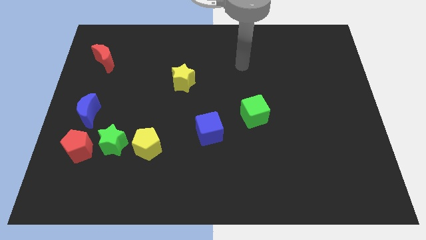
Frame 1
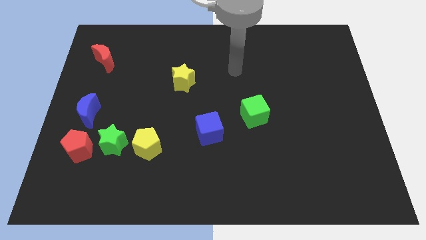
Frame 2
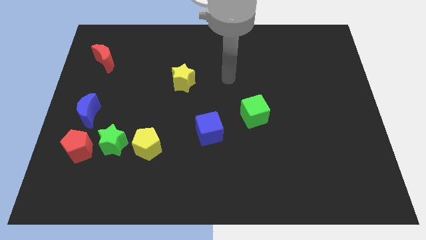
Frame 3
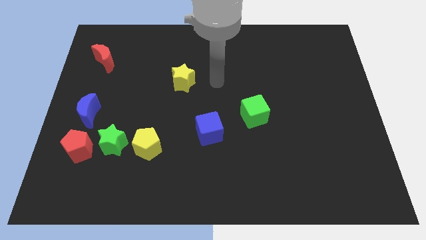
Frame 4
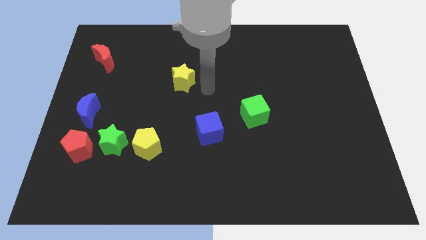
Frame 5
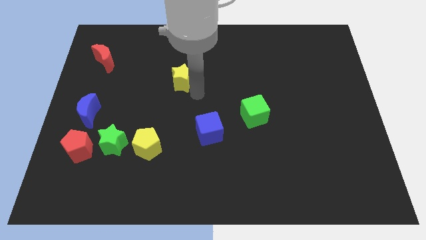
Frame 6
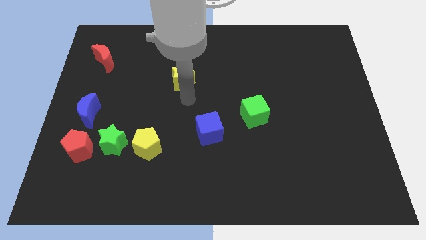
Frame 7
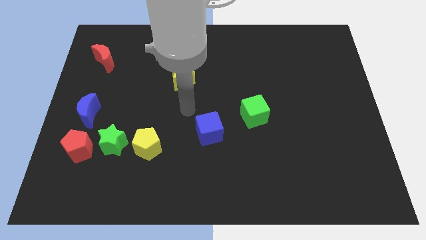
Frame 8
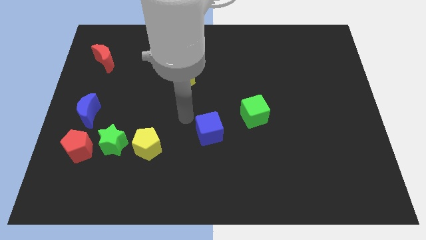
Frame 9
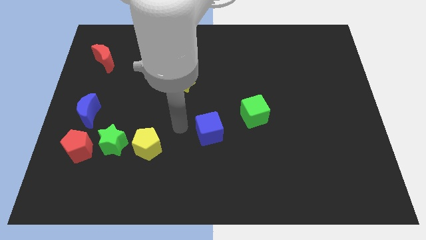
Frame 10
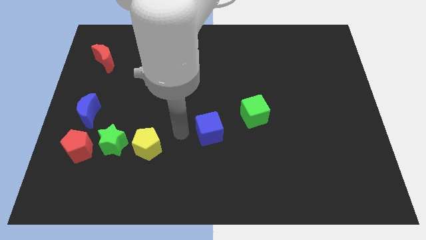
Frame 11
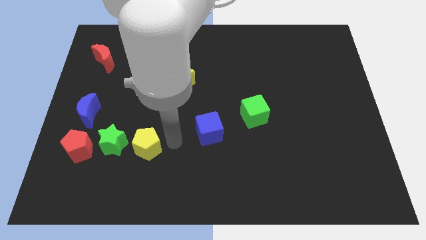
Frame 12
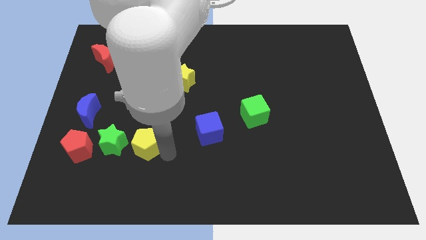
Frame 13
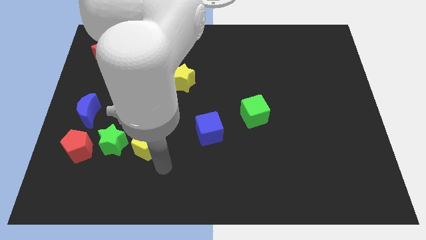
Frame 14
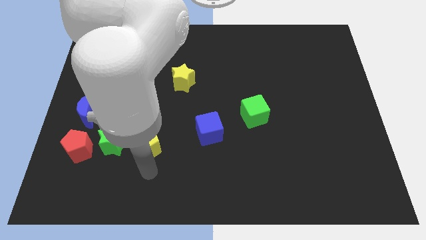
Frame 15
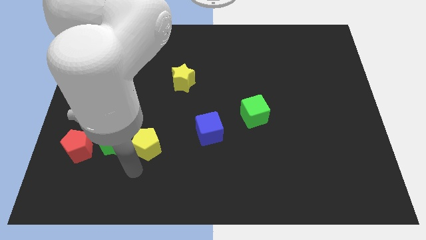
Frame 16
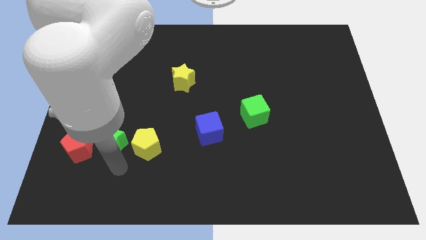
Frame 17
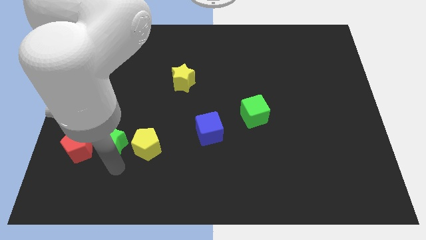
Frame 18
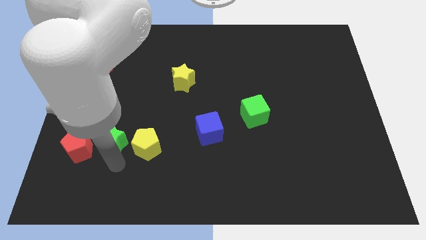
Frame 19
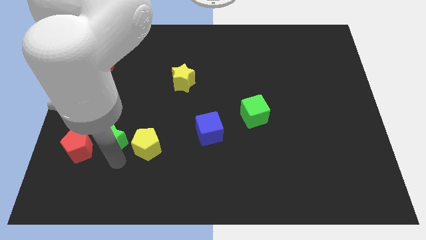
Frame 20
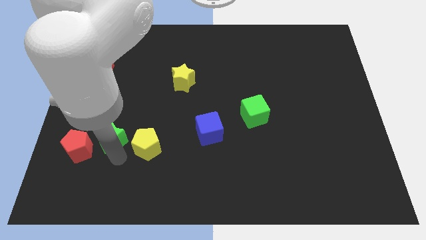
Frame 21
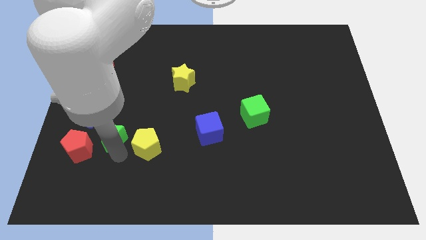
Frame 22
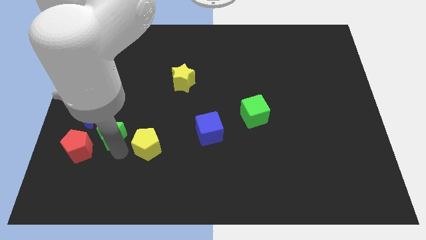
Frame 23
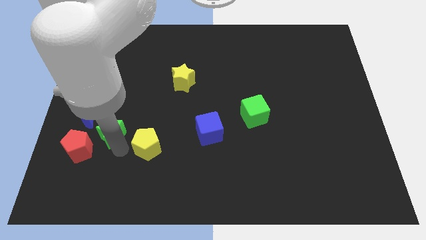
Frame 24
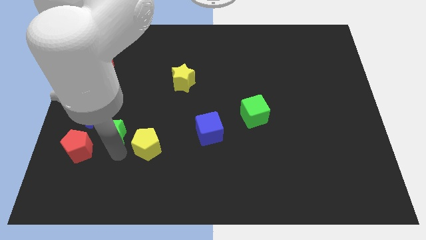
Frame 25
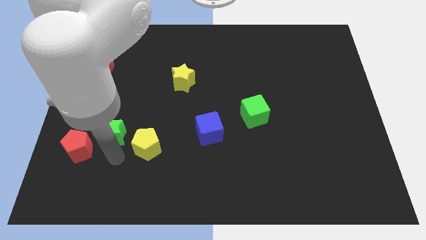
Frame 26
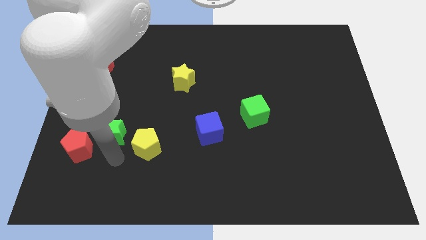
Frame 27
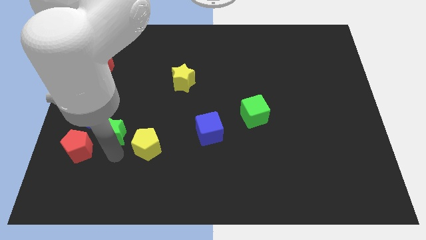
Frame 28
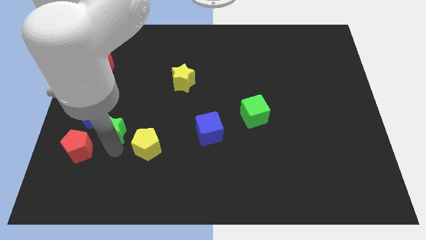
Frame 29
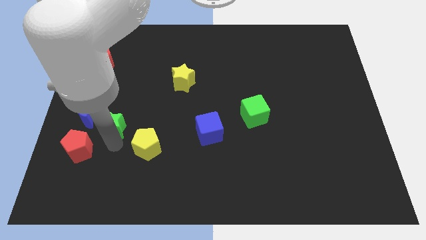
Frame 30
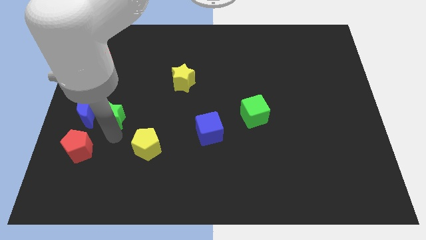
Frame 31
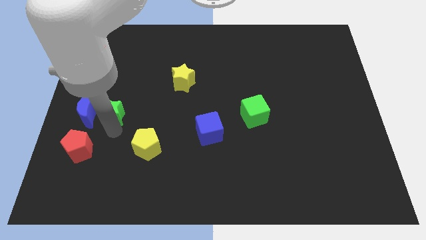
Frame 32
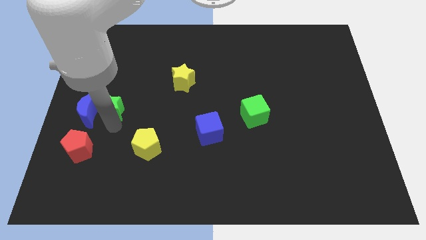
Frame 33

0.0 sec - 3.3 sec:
pull the green star apart from the red pentagon and yellow pentagon

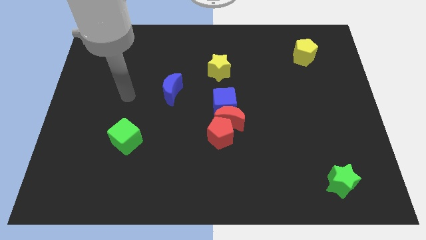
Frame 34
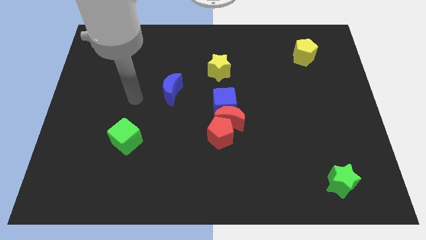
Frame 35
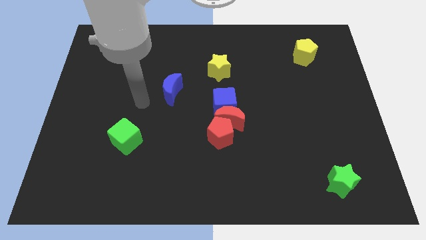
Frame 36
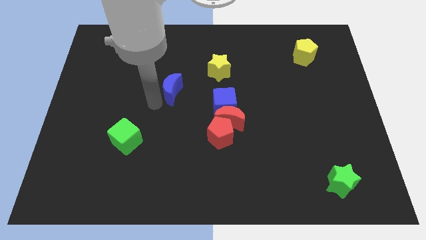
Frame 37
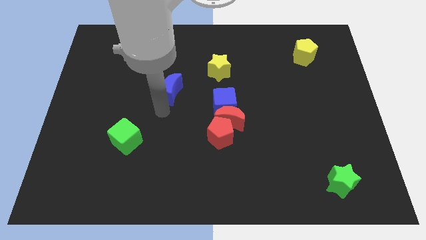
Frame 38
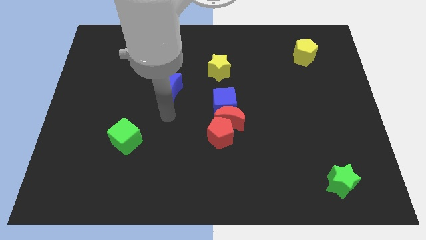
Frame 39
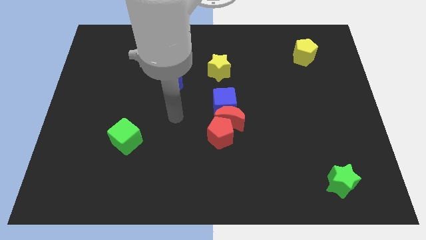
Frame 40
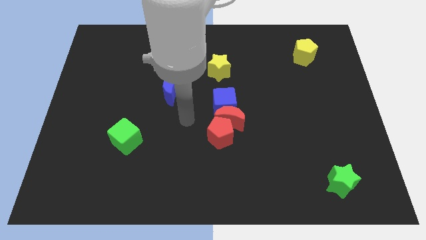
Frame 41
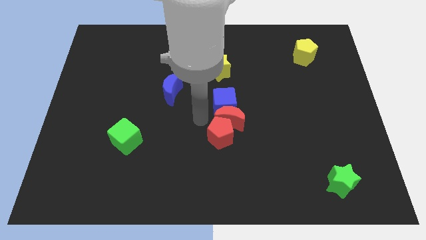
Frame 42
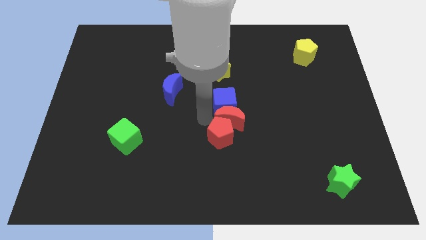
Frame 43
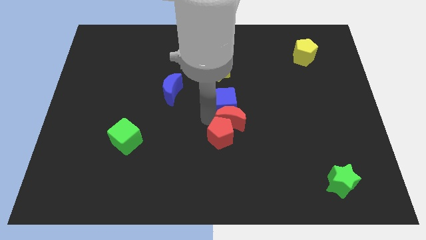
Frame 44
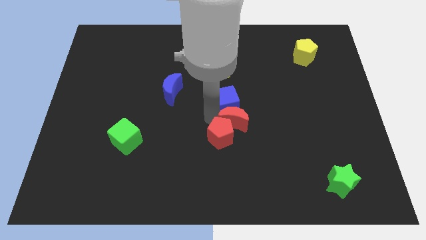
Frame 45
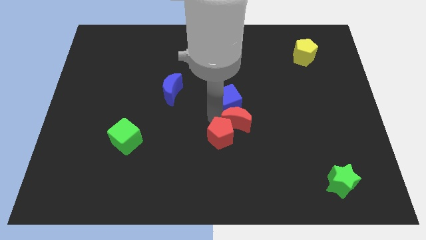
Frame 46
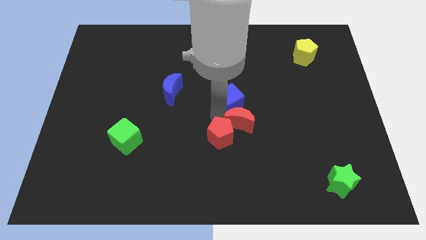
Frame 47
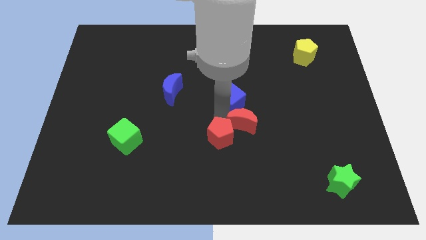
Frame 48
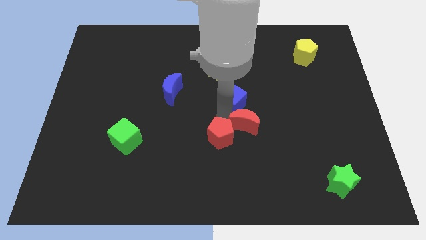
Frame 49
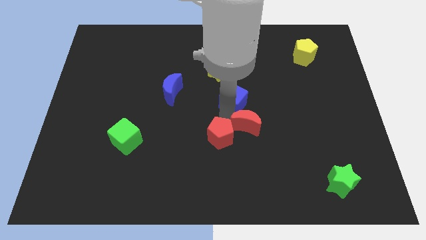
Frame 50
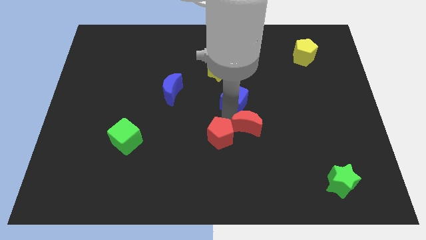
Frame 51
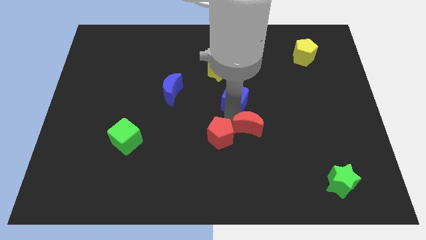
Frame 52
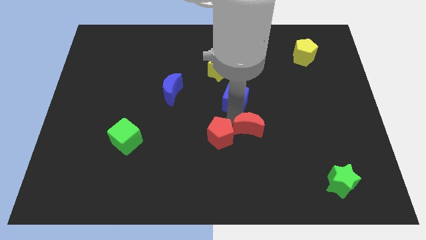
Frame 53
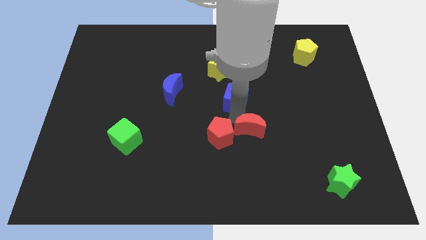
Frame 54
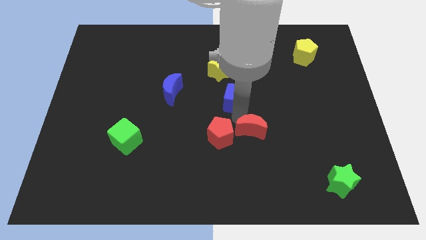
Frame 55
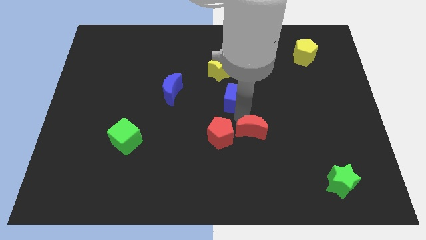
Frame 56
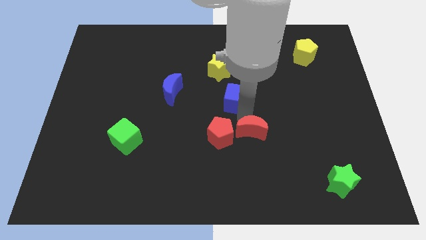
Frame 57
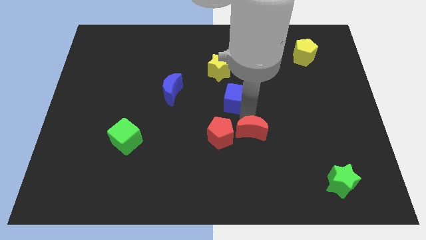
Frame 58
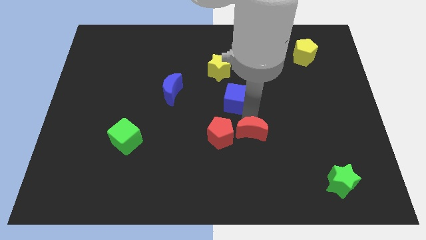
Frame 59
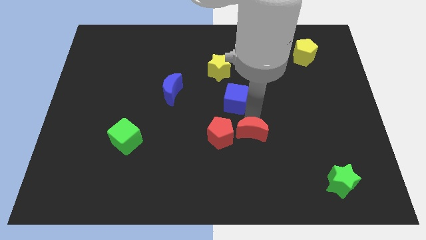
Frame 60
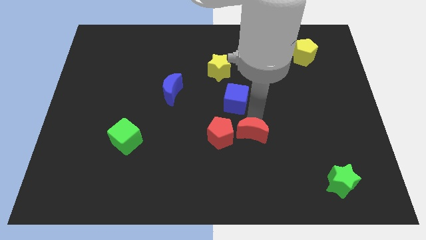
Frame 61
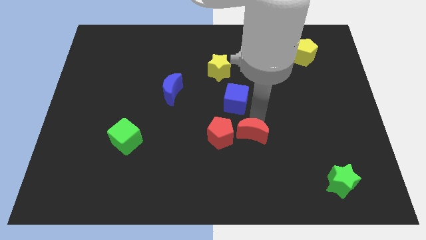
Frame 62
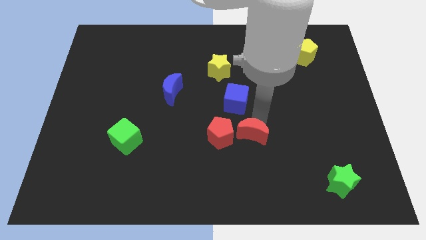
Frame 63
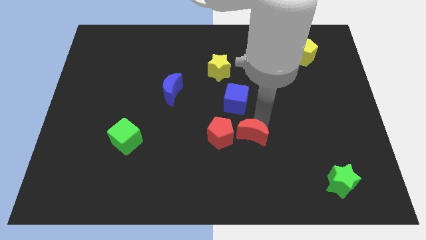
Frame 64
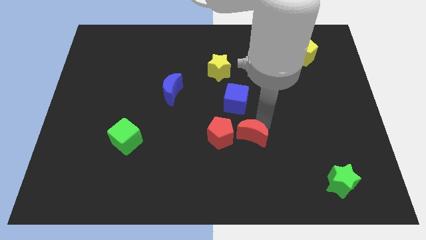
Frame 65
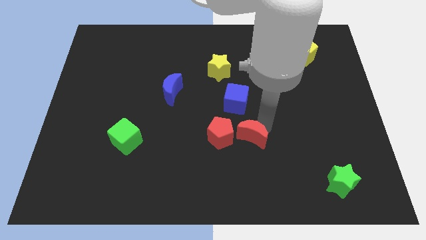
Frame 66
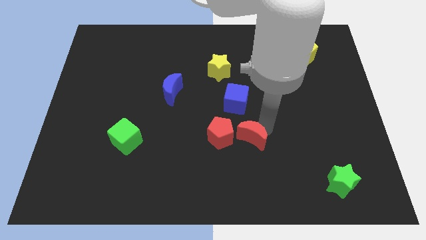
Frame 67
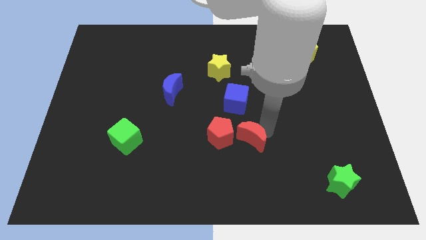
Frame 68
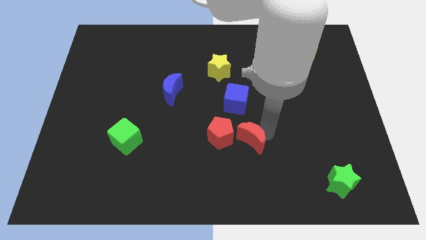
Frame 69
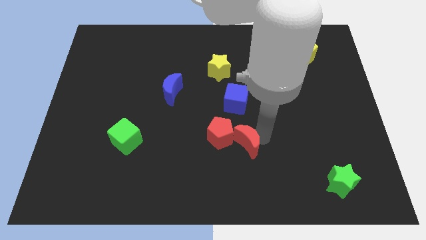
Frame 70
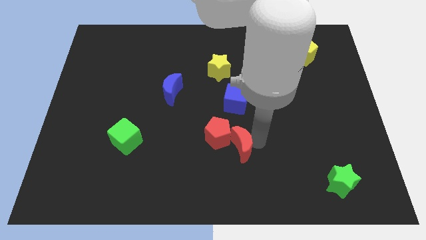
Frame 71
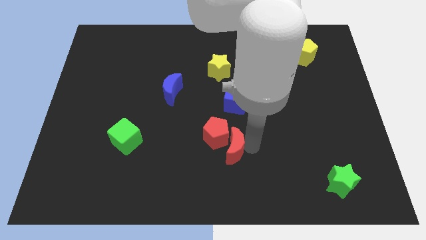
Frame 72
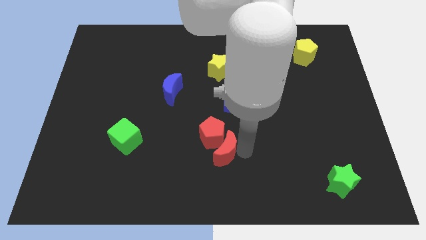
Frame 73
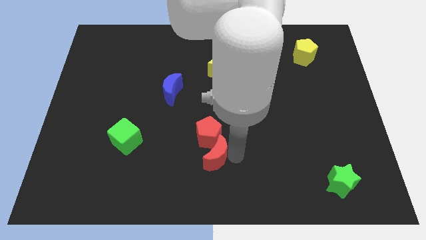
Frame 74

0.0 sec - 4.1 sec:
move the red moon away from the blue cube and red pentagon

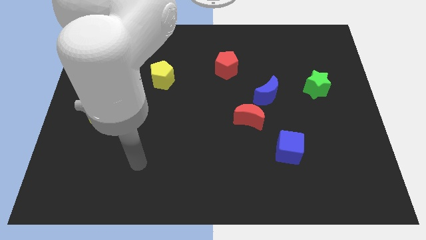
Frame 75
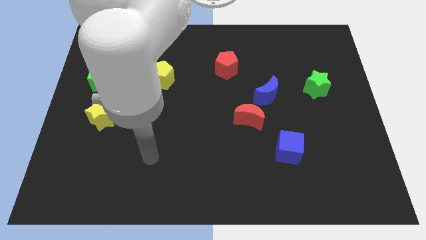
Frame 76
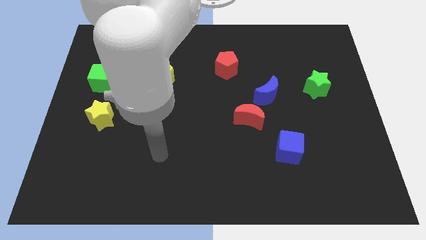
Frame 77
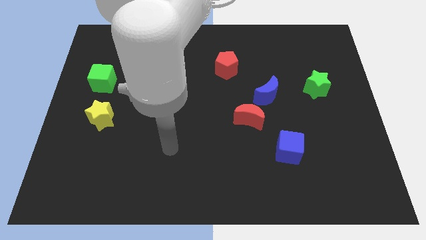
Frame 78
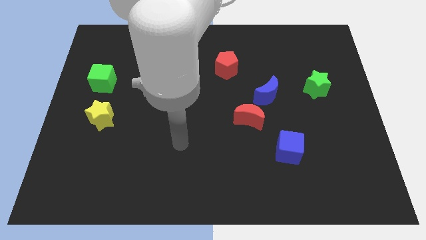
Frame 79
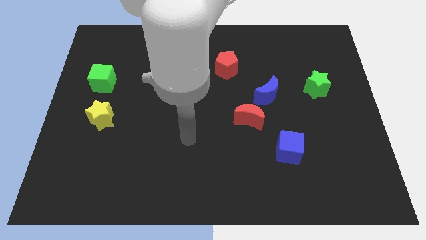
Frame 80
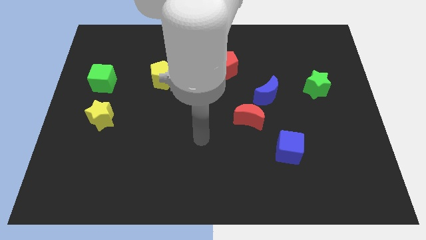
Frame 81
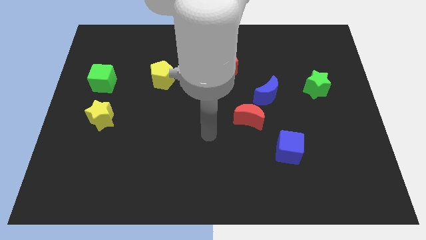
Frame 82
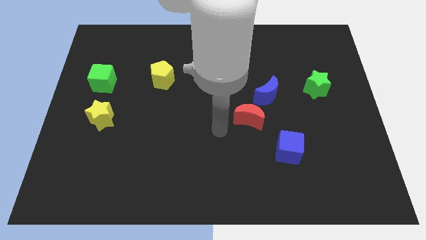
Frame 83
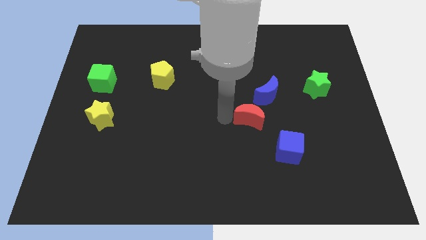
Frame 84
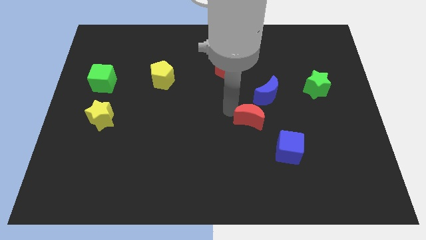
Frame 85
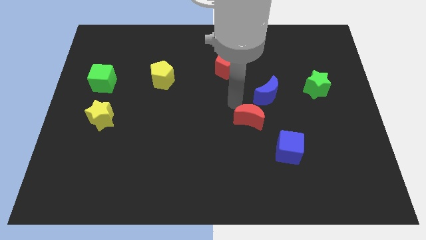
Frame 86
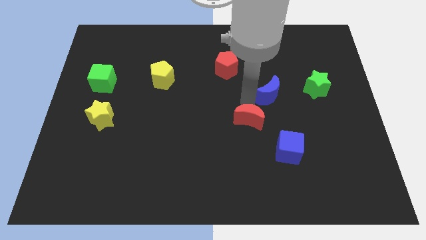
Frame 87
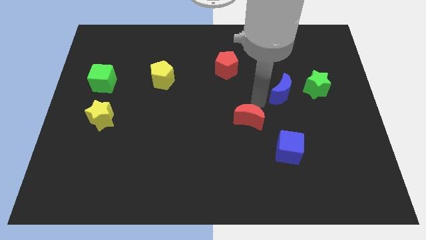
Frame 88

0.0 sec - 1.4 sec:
move the red moon away from the blue moon

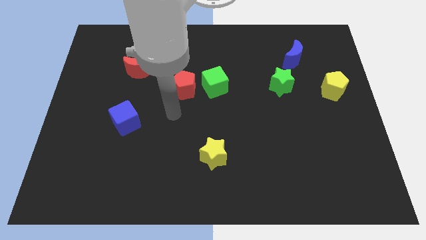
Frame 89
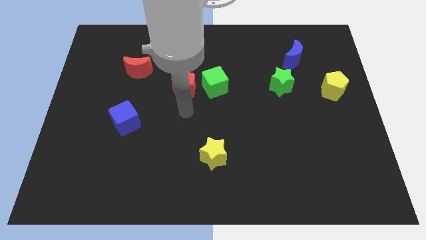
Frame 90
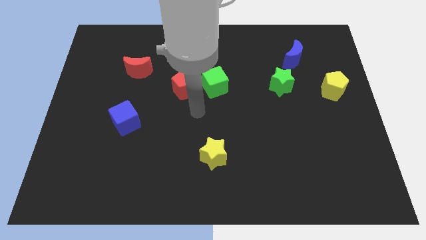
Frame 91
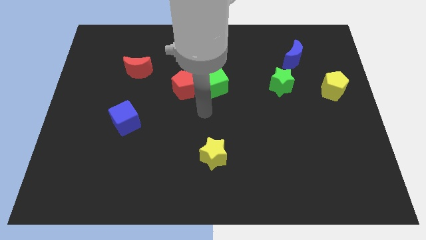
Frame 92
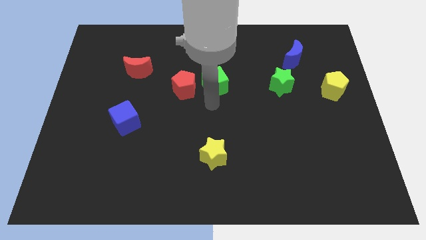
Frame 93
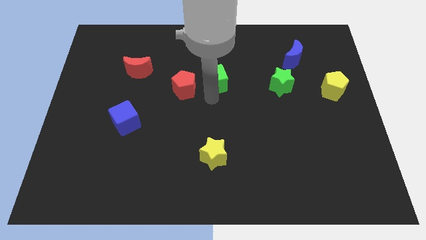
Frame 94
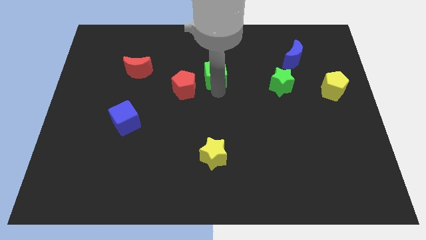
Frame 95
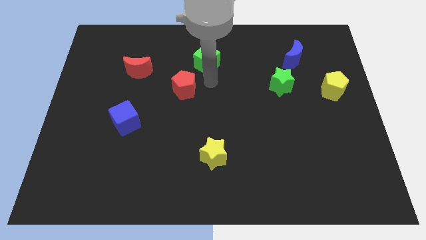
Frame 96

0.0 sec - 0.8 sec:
pull the red pentagon apart from the green cube
